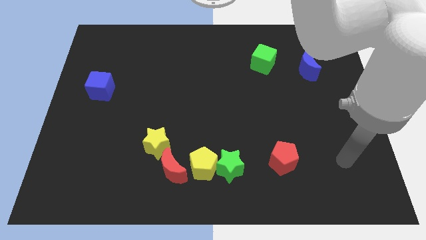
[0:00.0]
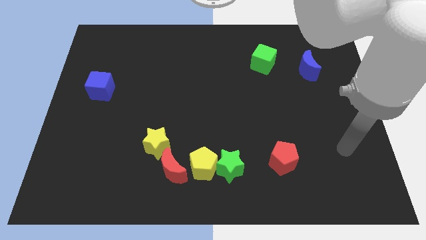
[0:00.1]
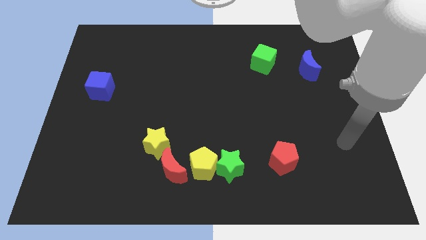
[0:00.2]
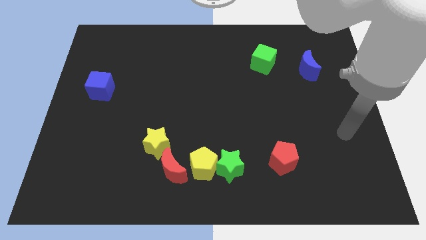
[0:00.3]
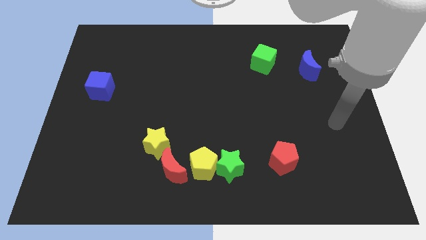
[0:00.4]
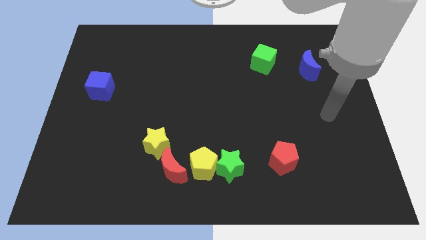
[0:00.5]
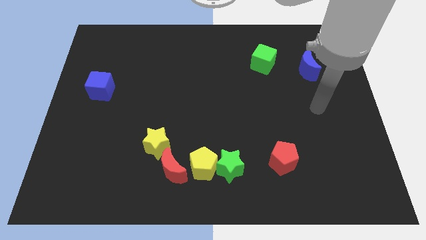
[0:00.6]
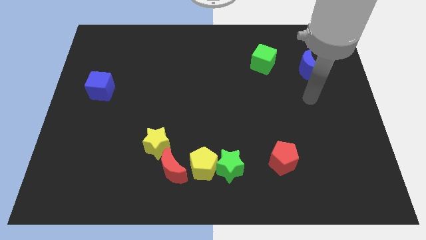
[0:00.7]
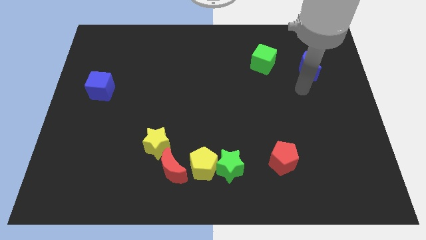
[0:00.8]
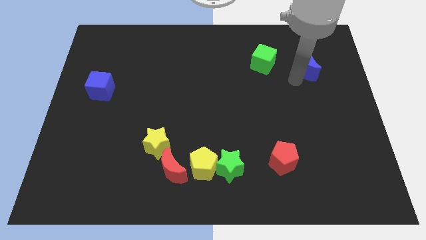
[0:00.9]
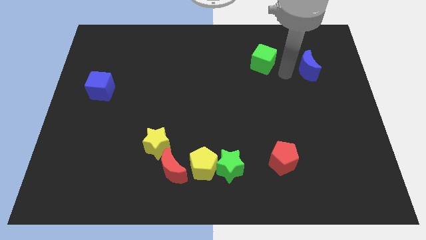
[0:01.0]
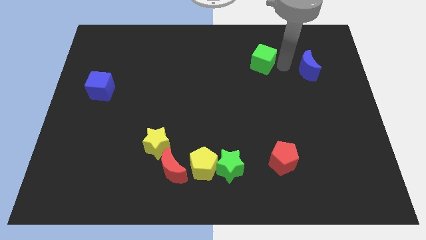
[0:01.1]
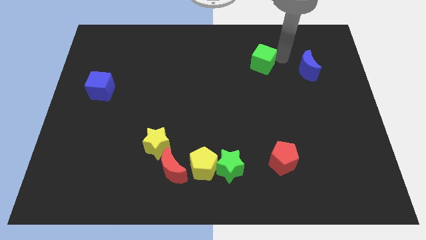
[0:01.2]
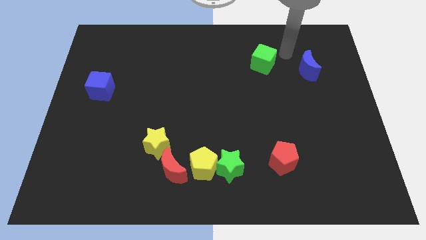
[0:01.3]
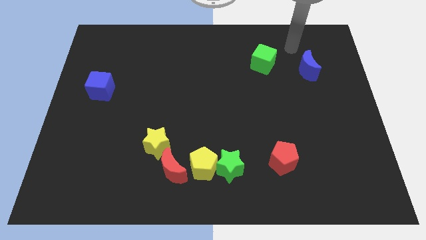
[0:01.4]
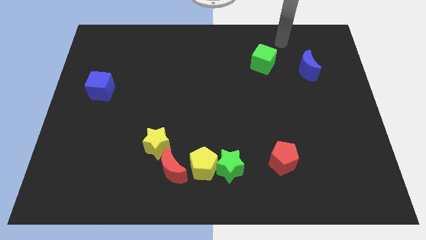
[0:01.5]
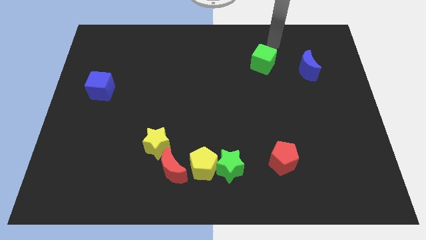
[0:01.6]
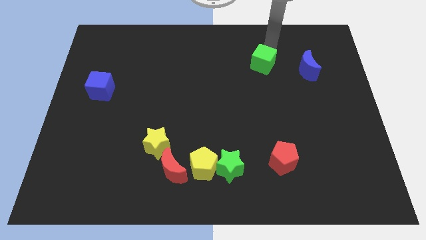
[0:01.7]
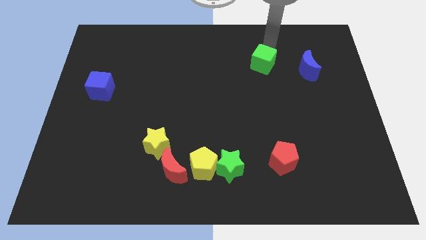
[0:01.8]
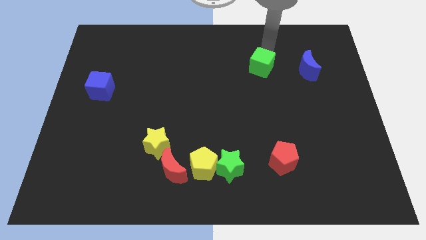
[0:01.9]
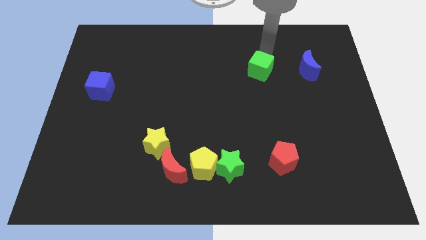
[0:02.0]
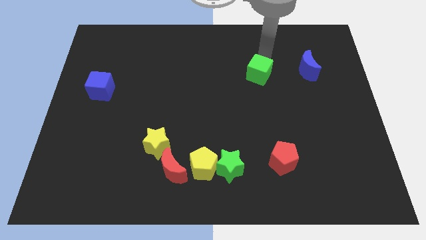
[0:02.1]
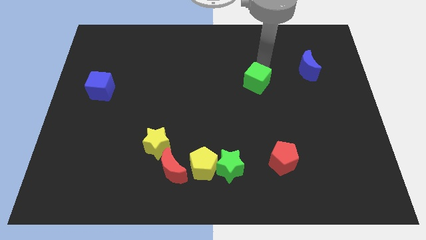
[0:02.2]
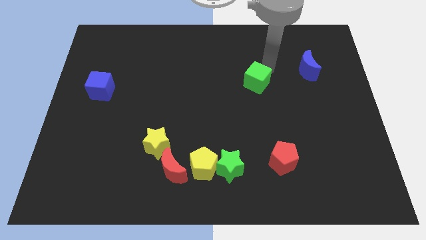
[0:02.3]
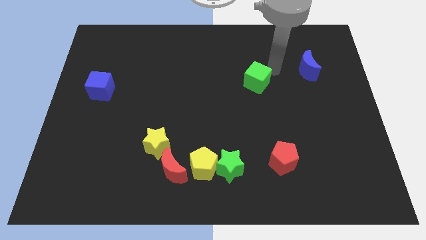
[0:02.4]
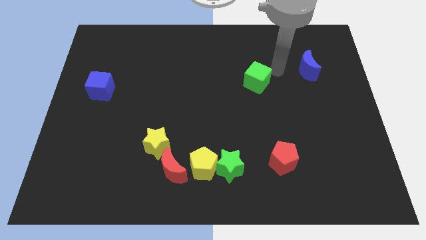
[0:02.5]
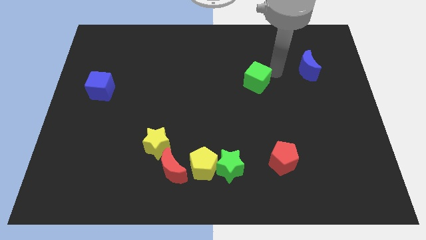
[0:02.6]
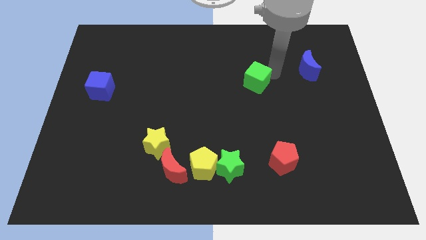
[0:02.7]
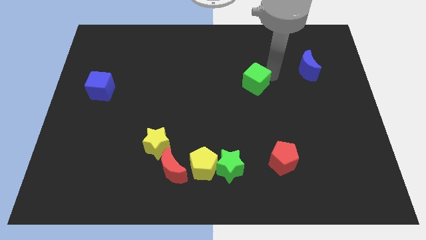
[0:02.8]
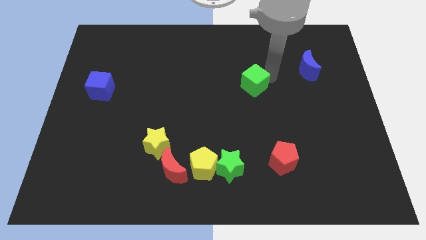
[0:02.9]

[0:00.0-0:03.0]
slide the green cube diagonally downwards and left somewhat

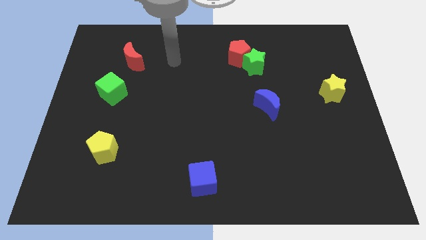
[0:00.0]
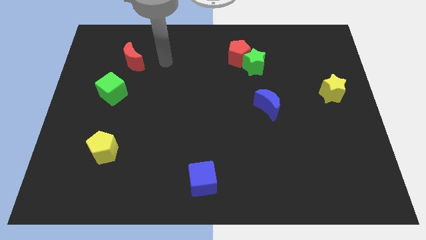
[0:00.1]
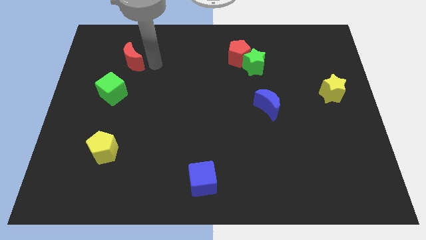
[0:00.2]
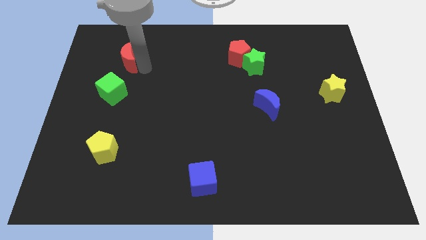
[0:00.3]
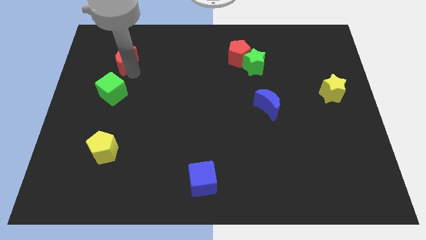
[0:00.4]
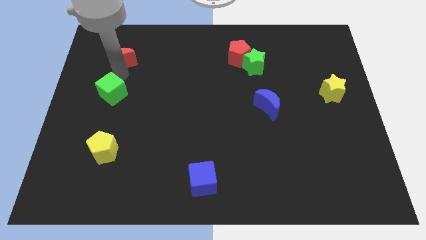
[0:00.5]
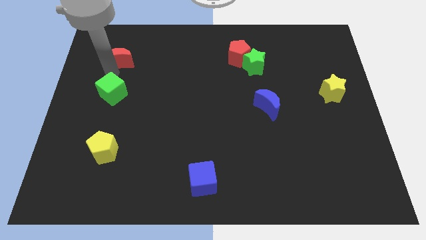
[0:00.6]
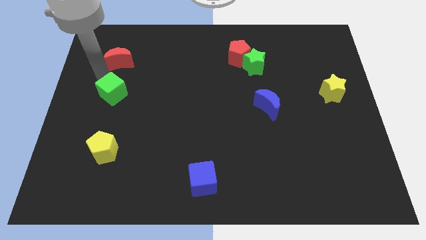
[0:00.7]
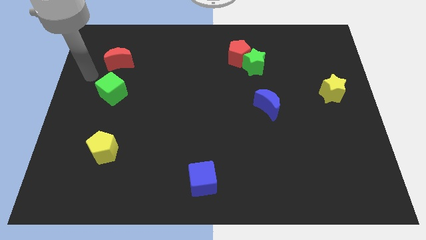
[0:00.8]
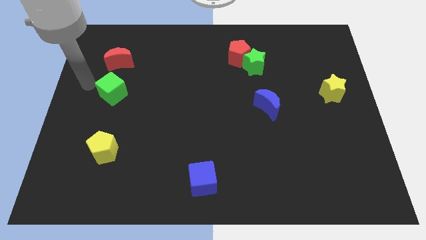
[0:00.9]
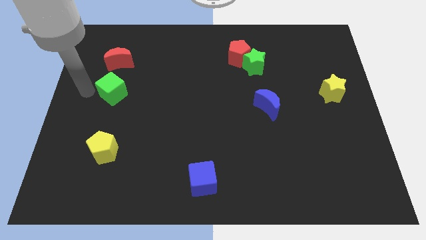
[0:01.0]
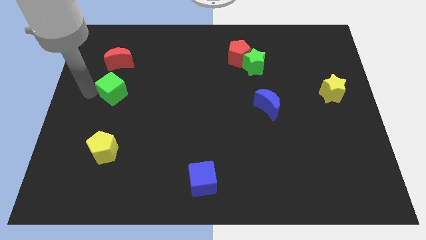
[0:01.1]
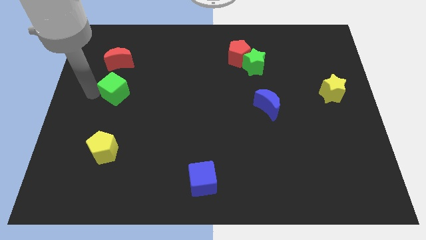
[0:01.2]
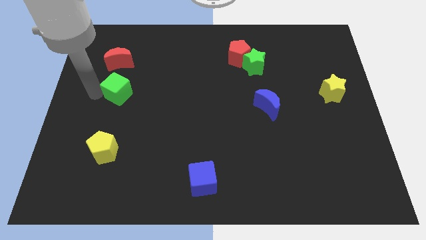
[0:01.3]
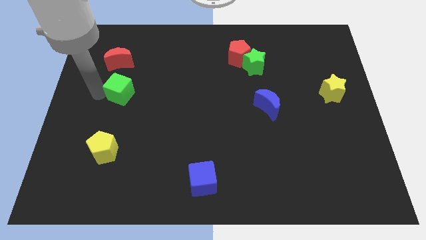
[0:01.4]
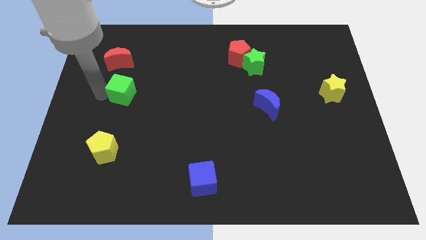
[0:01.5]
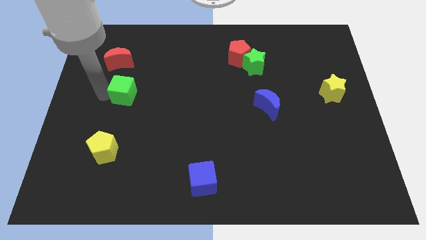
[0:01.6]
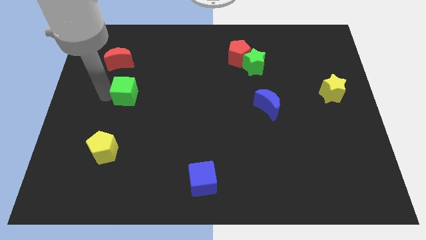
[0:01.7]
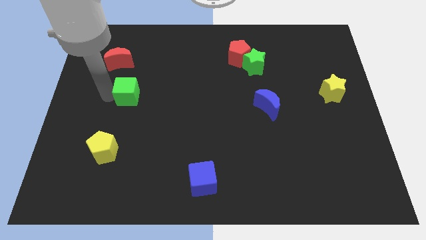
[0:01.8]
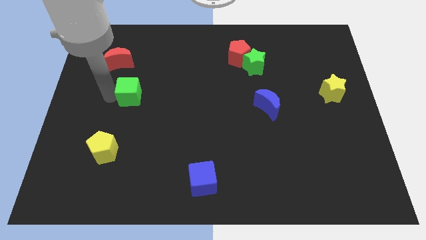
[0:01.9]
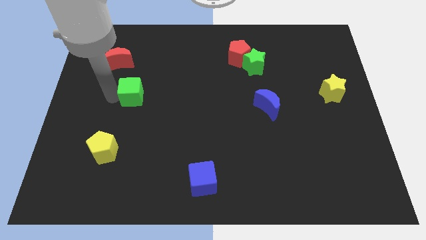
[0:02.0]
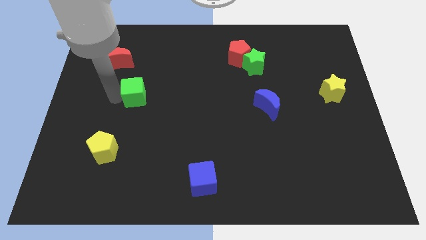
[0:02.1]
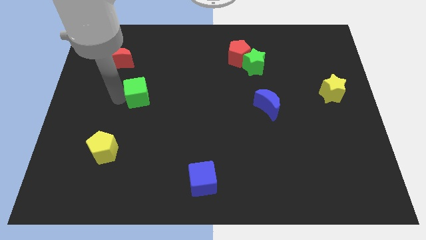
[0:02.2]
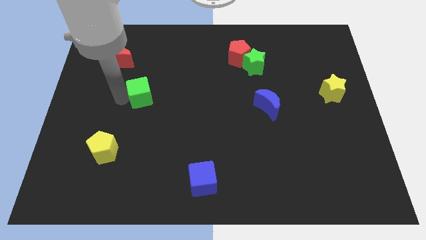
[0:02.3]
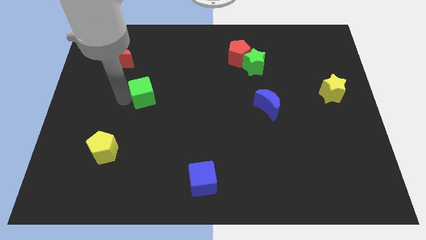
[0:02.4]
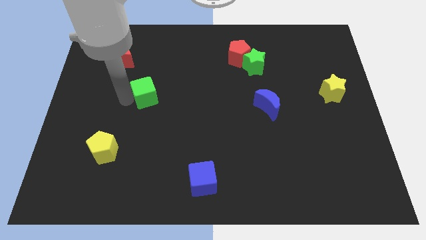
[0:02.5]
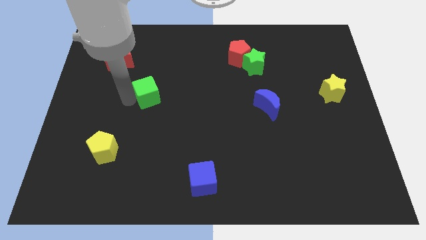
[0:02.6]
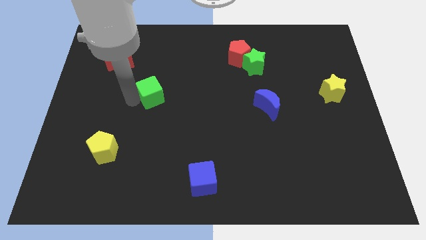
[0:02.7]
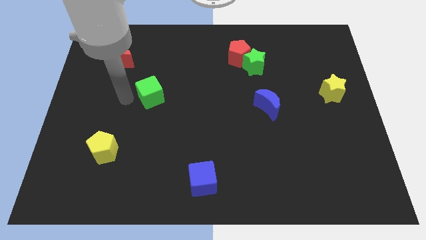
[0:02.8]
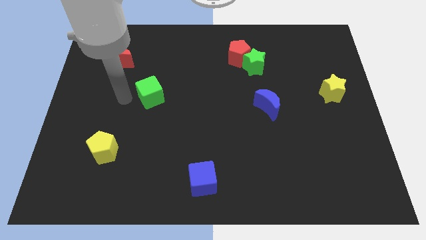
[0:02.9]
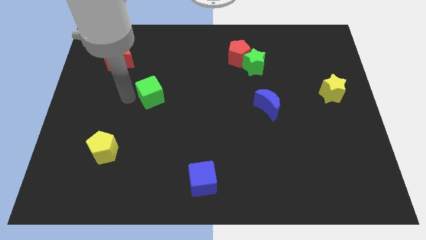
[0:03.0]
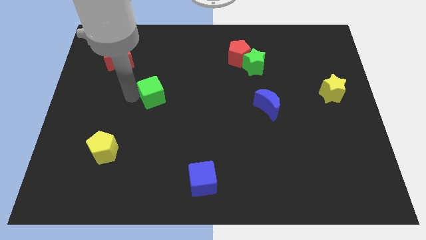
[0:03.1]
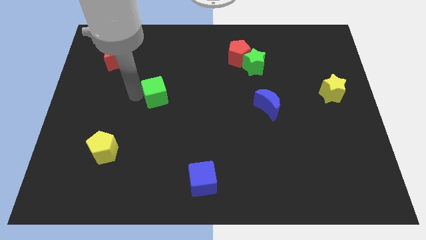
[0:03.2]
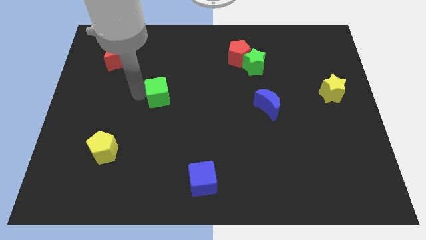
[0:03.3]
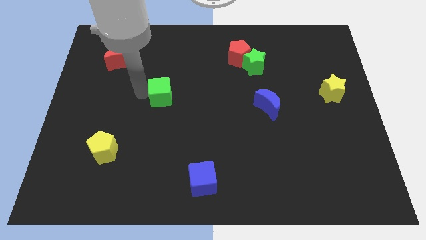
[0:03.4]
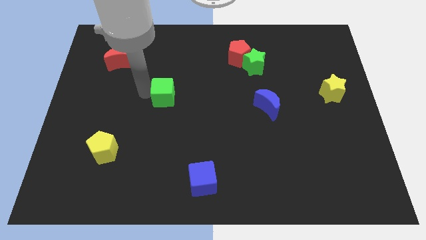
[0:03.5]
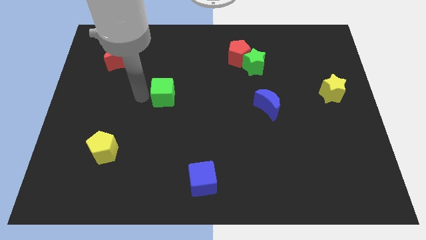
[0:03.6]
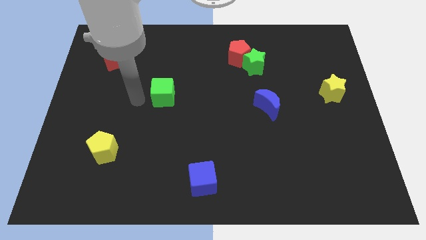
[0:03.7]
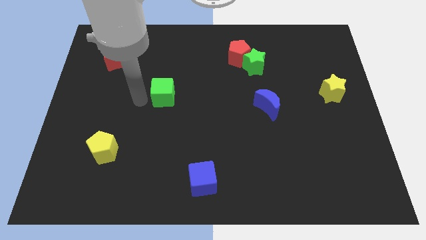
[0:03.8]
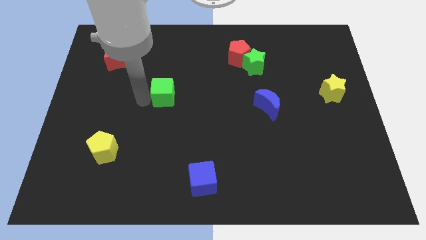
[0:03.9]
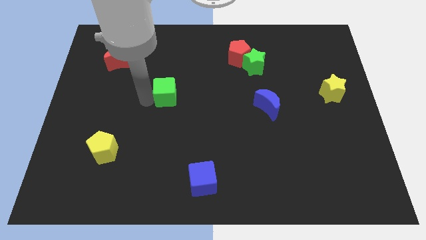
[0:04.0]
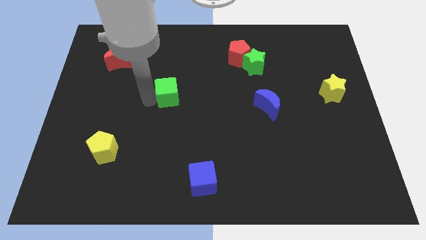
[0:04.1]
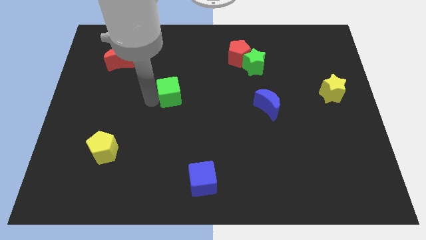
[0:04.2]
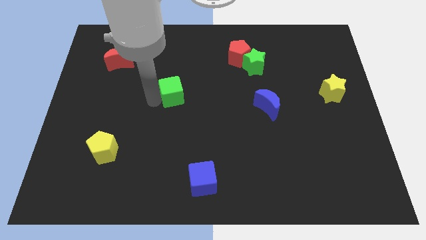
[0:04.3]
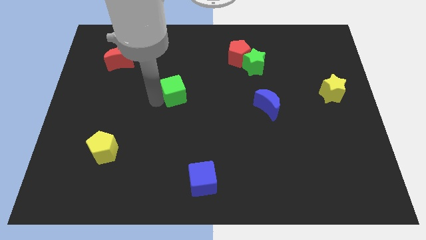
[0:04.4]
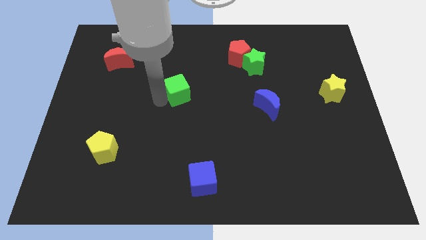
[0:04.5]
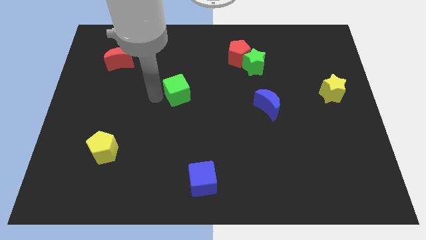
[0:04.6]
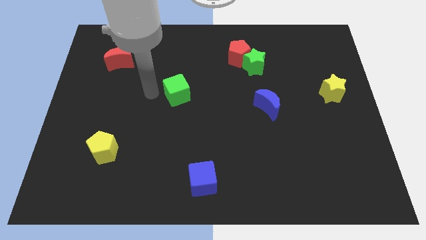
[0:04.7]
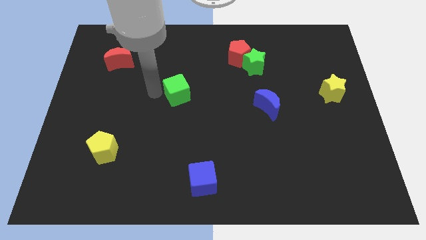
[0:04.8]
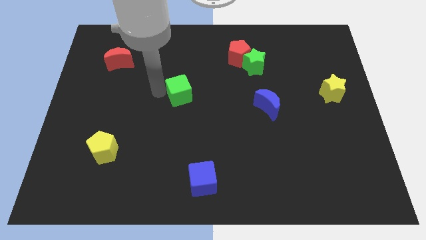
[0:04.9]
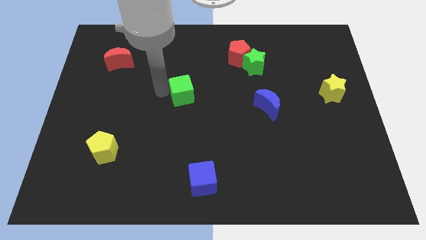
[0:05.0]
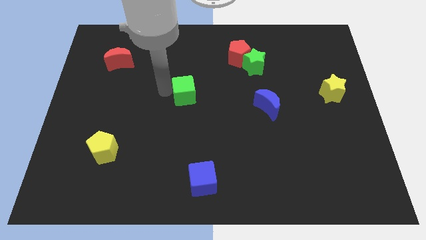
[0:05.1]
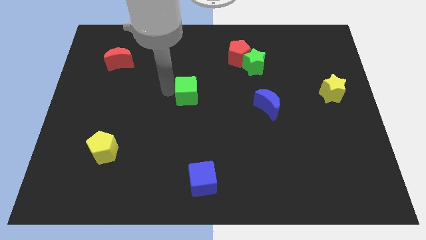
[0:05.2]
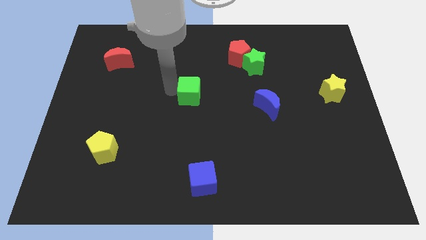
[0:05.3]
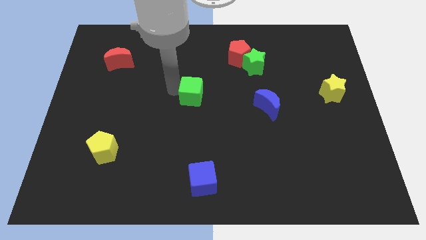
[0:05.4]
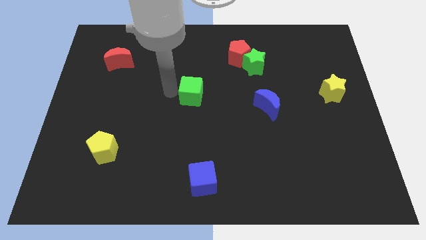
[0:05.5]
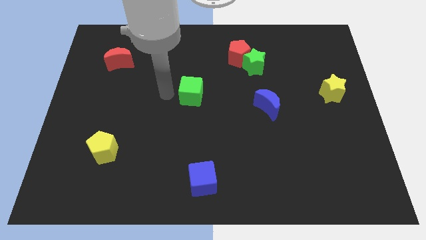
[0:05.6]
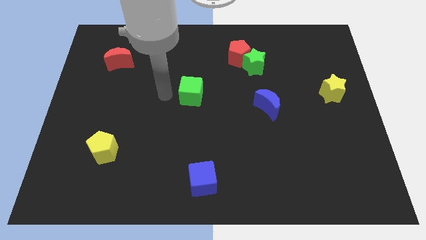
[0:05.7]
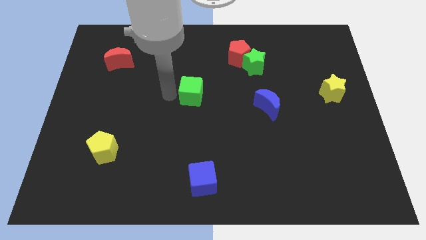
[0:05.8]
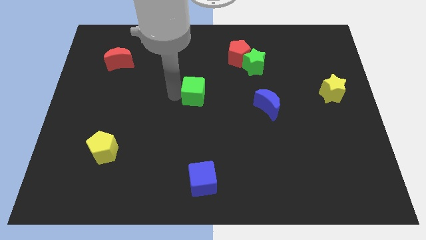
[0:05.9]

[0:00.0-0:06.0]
move the green cube right
